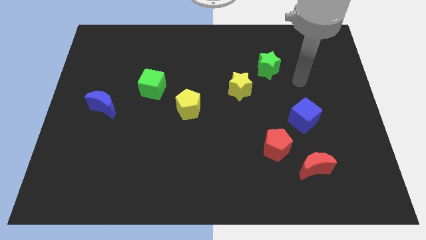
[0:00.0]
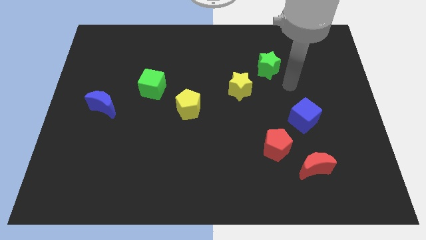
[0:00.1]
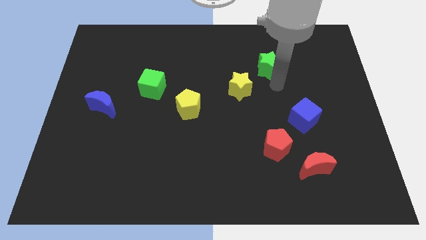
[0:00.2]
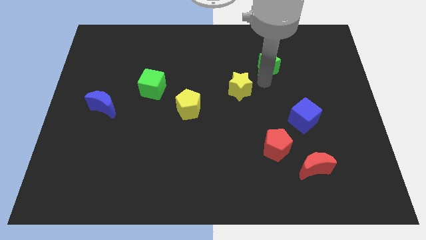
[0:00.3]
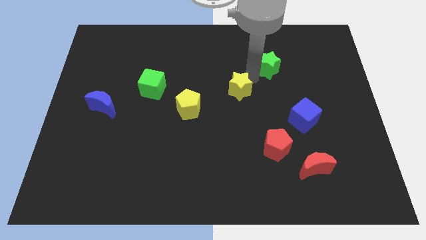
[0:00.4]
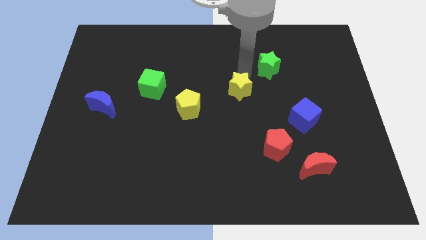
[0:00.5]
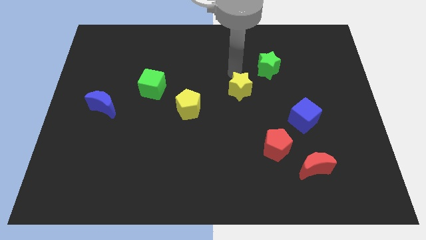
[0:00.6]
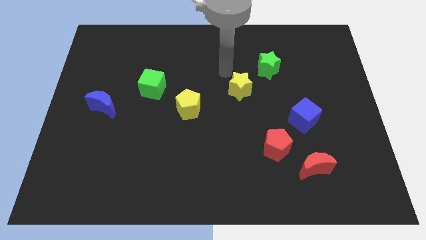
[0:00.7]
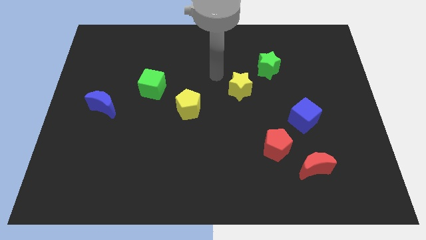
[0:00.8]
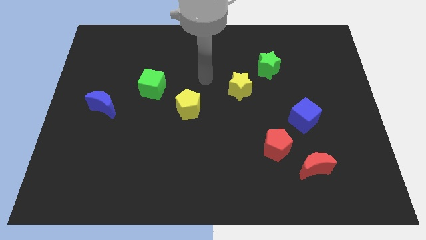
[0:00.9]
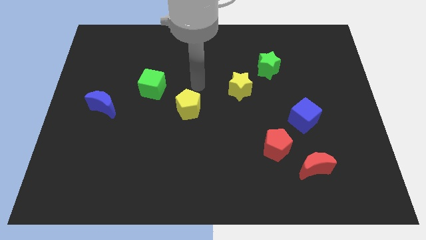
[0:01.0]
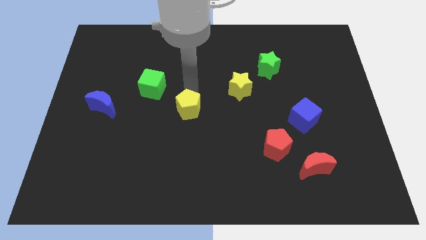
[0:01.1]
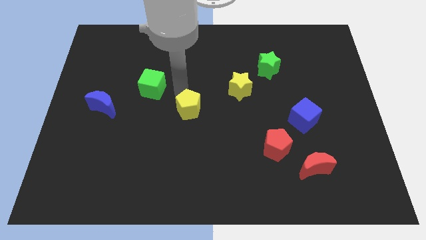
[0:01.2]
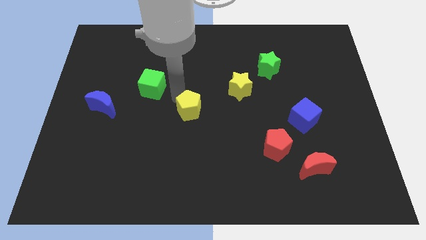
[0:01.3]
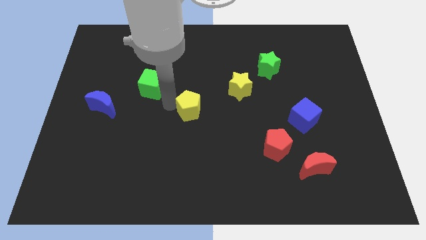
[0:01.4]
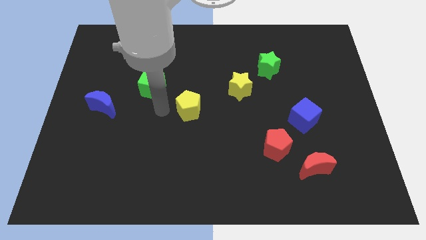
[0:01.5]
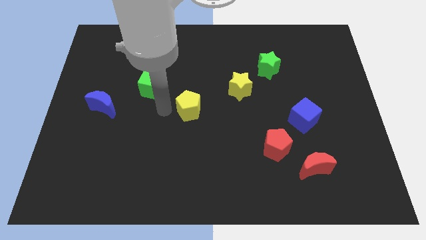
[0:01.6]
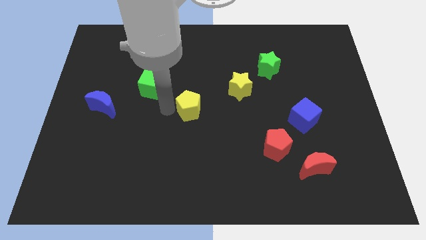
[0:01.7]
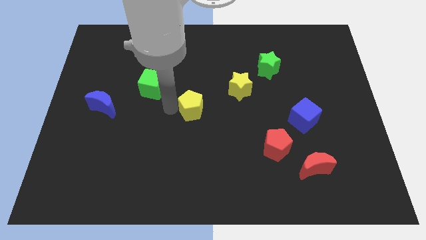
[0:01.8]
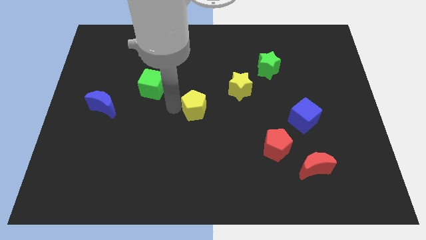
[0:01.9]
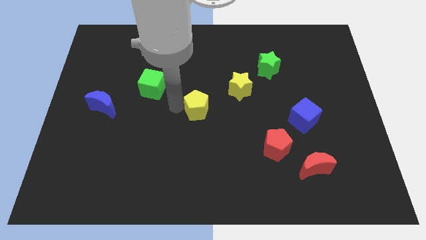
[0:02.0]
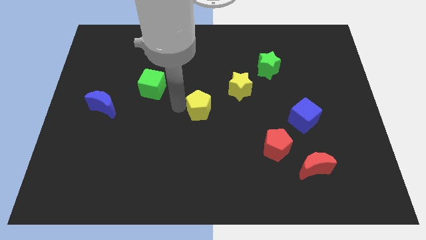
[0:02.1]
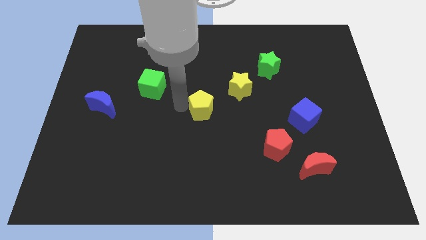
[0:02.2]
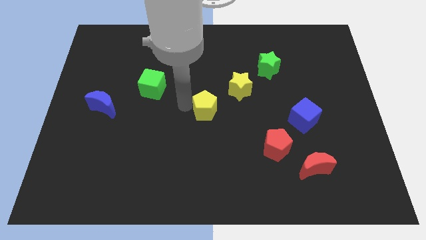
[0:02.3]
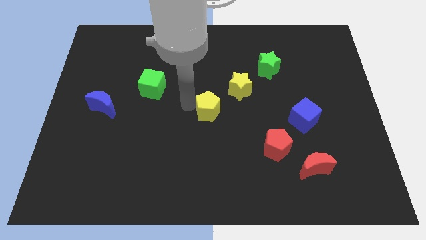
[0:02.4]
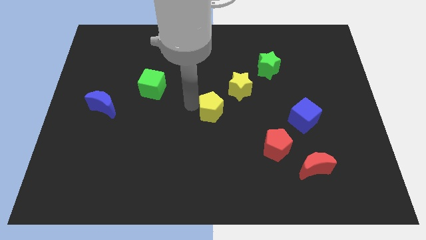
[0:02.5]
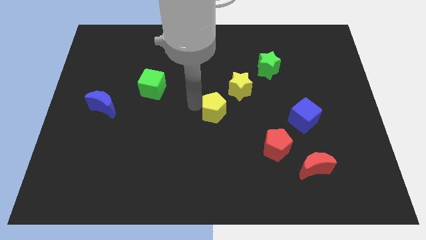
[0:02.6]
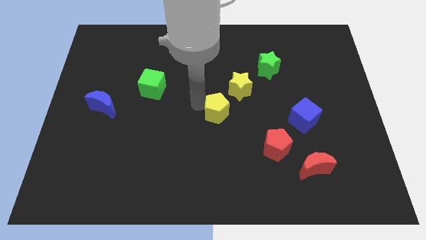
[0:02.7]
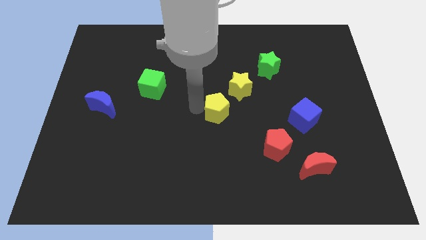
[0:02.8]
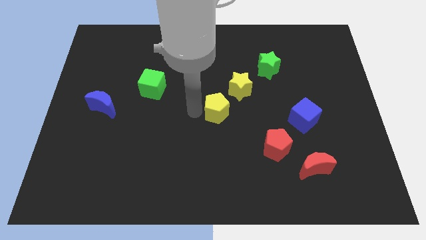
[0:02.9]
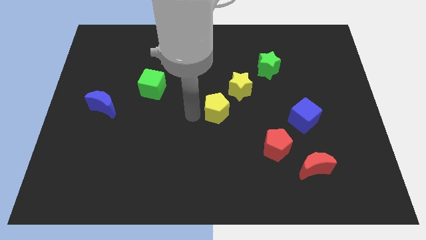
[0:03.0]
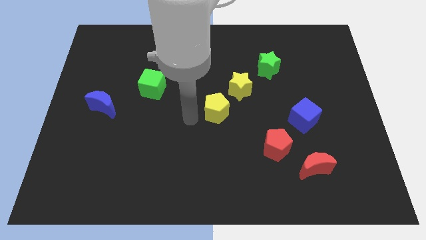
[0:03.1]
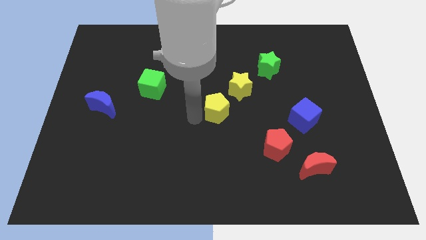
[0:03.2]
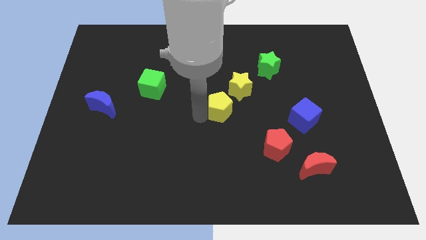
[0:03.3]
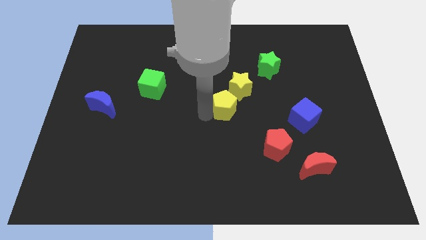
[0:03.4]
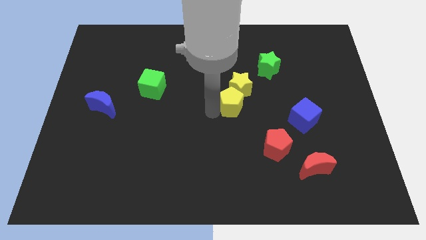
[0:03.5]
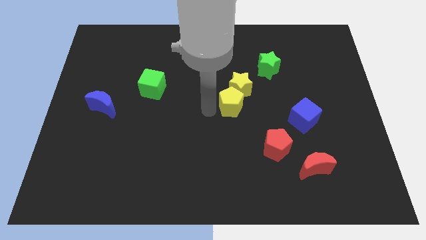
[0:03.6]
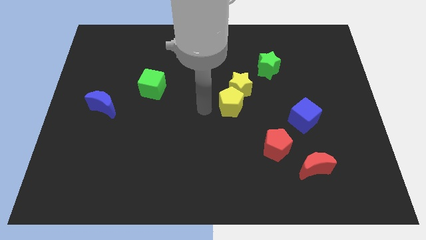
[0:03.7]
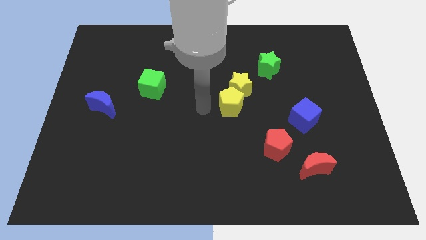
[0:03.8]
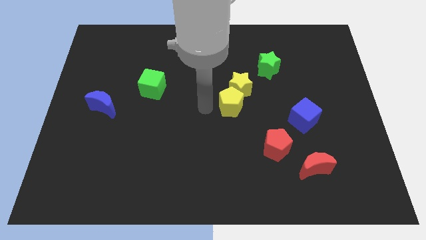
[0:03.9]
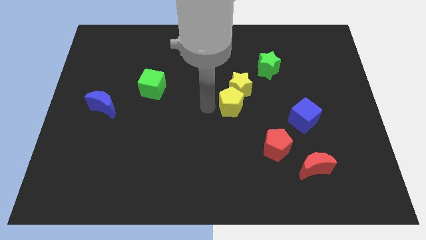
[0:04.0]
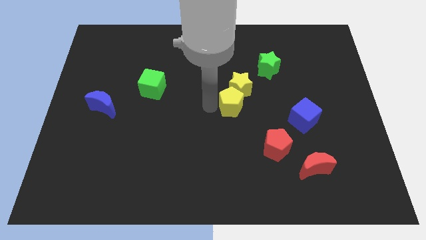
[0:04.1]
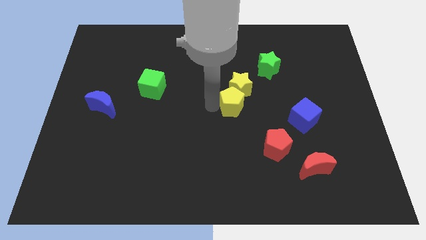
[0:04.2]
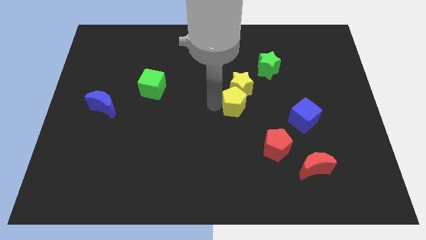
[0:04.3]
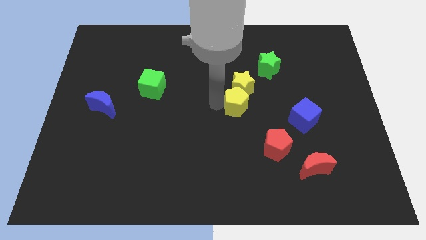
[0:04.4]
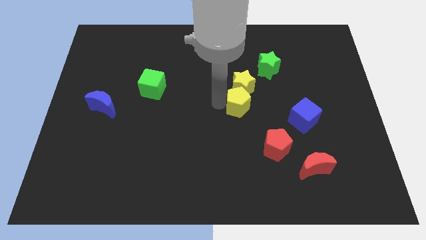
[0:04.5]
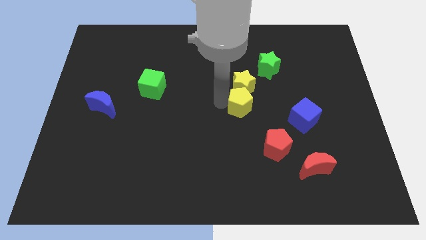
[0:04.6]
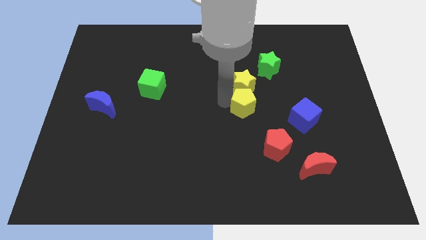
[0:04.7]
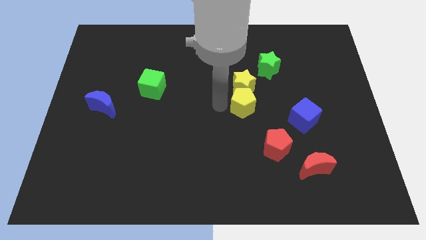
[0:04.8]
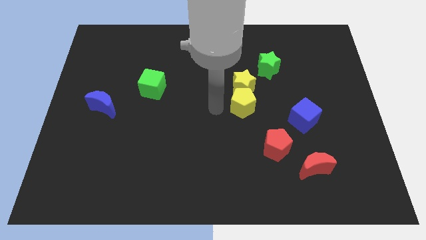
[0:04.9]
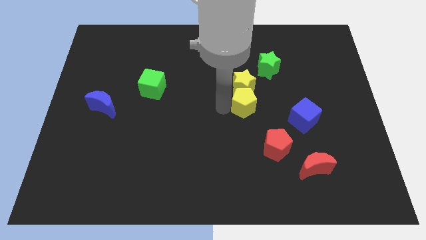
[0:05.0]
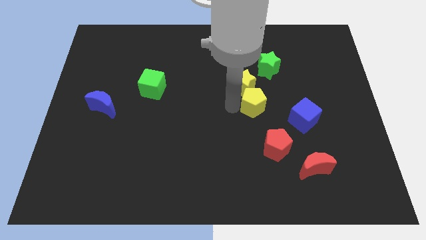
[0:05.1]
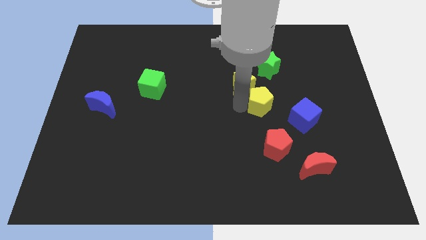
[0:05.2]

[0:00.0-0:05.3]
push the yellow pentagon diagonally up and to the left of the blue cube

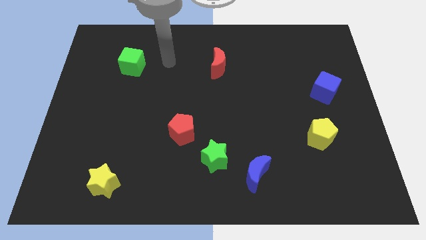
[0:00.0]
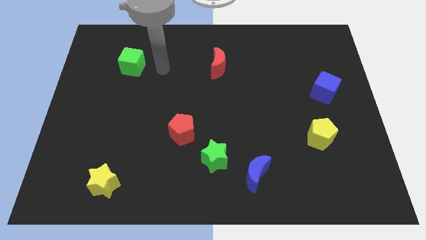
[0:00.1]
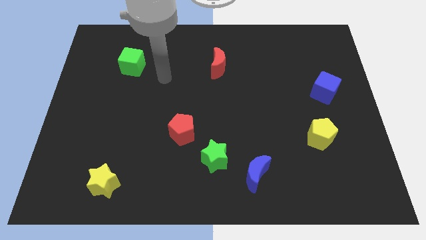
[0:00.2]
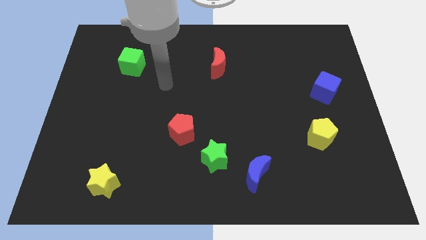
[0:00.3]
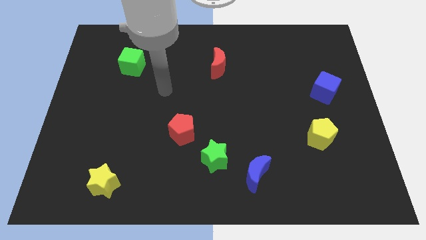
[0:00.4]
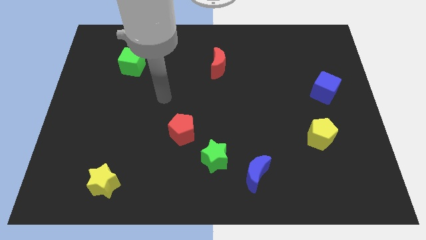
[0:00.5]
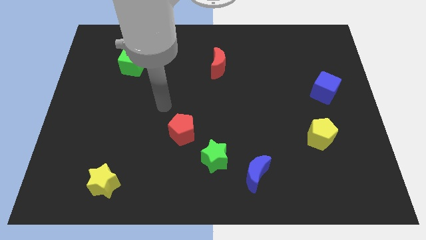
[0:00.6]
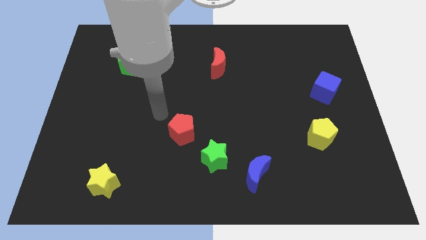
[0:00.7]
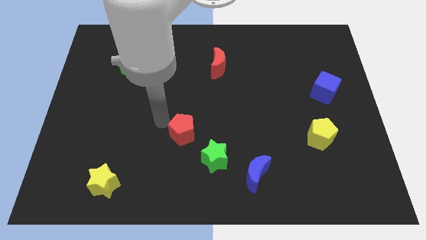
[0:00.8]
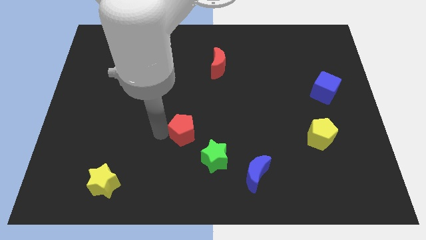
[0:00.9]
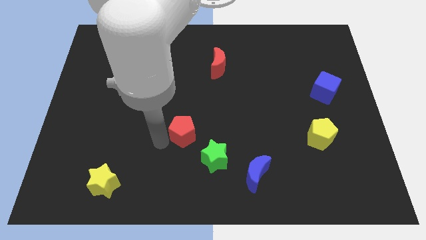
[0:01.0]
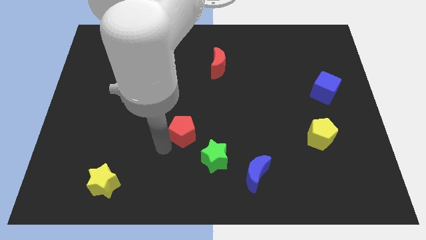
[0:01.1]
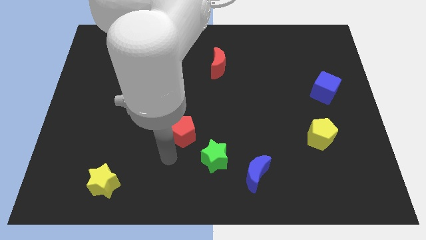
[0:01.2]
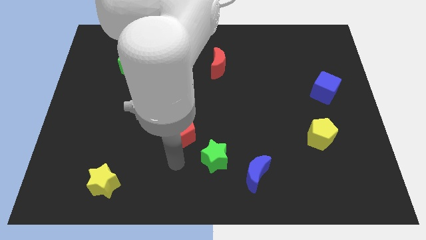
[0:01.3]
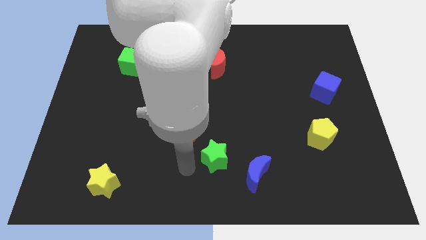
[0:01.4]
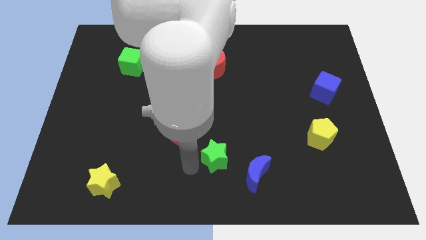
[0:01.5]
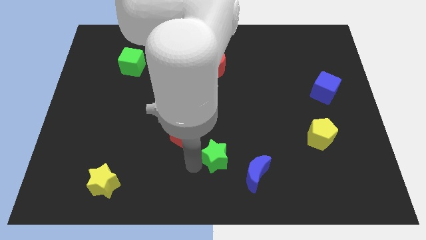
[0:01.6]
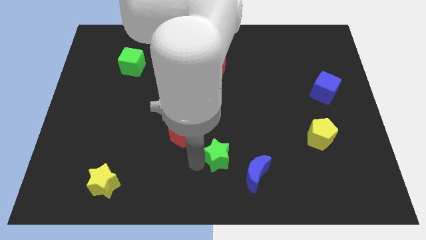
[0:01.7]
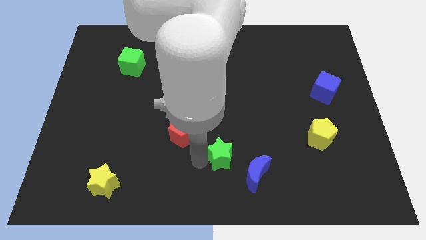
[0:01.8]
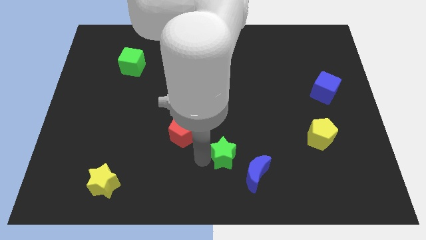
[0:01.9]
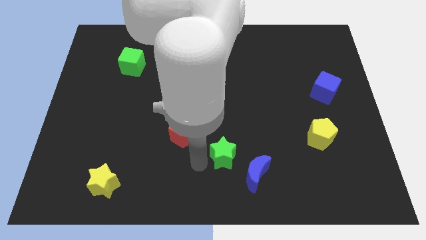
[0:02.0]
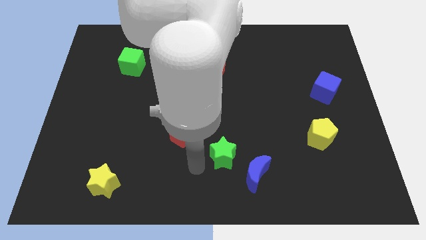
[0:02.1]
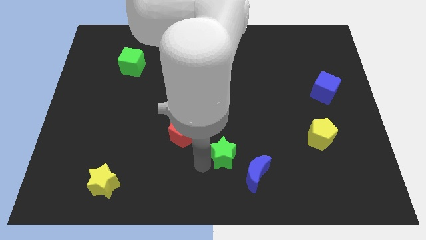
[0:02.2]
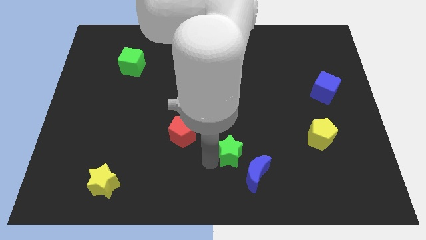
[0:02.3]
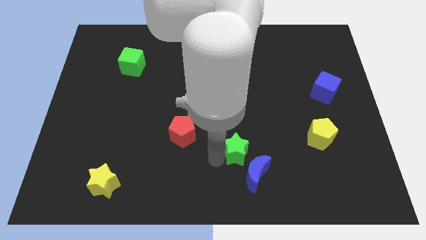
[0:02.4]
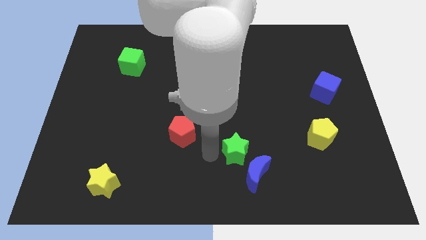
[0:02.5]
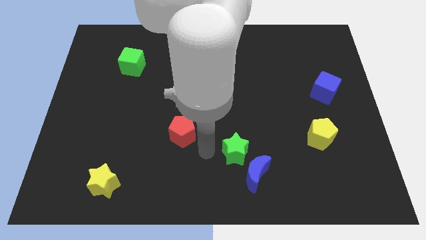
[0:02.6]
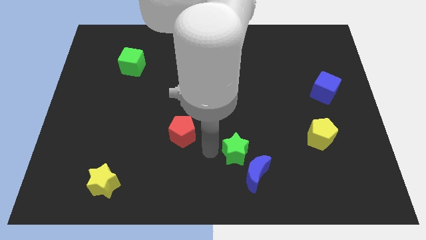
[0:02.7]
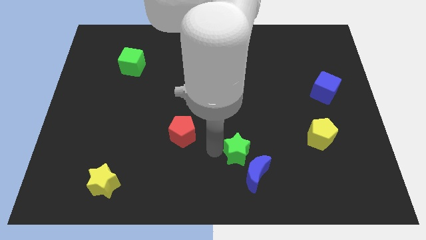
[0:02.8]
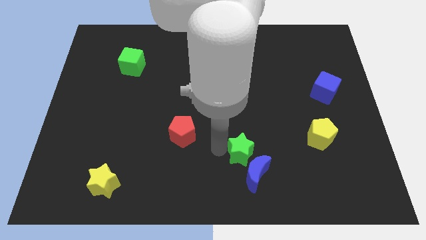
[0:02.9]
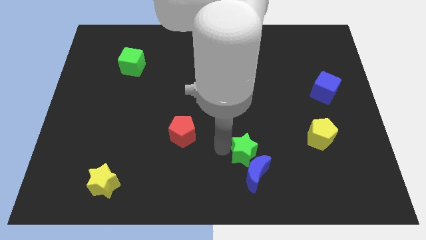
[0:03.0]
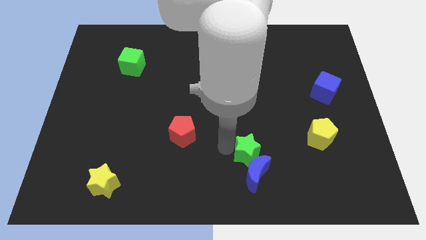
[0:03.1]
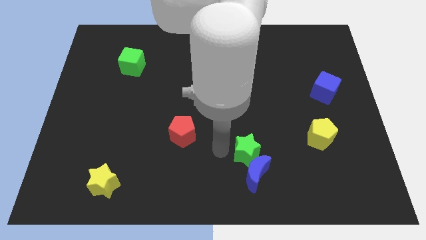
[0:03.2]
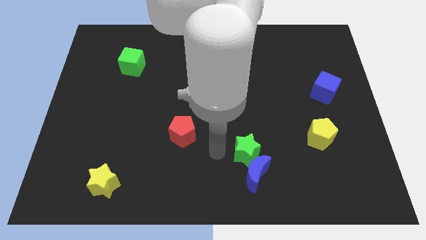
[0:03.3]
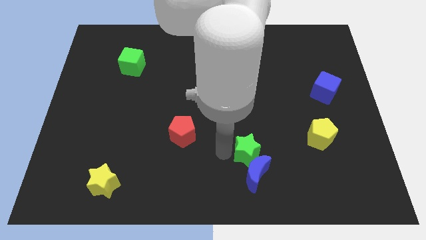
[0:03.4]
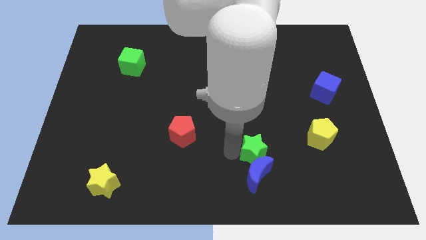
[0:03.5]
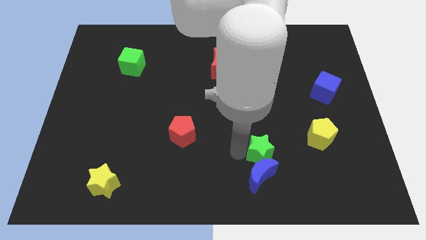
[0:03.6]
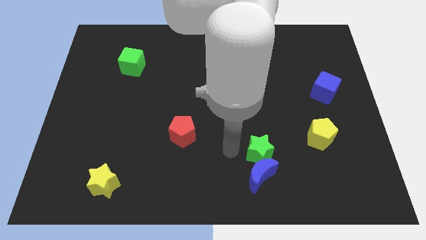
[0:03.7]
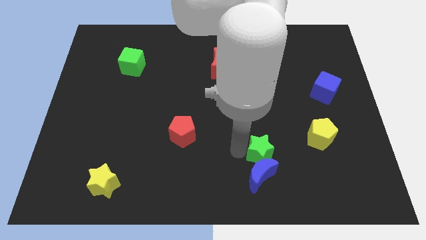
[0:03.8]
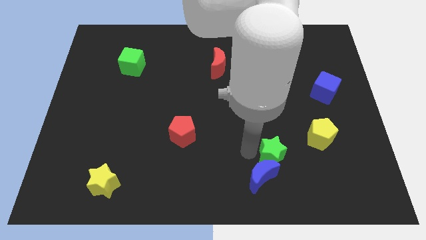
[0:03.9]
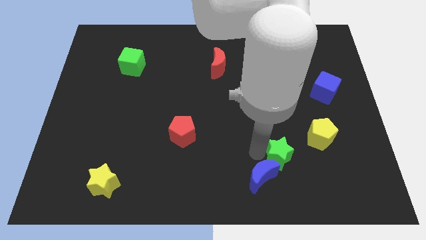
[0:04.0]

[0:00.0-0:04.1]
put the green star to the bottom left of the yellow pentagon
